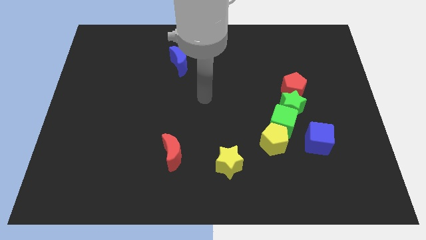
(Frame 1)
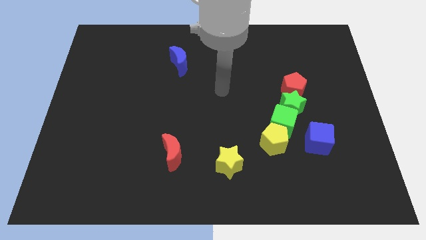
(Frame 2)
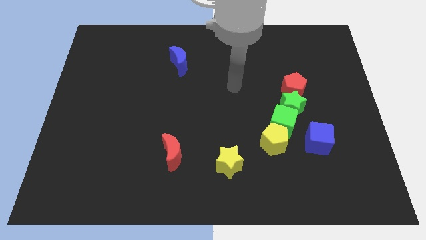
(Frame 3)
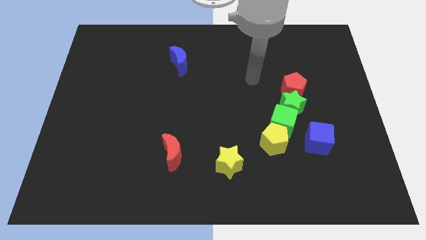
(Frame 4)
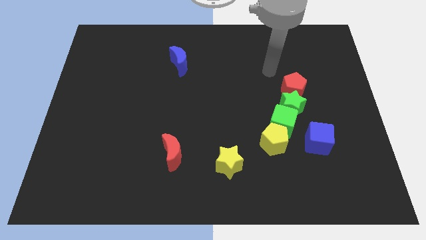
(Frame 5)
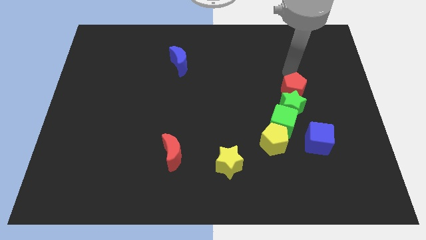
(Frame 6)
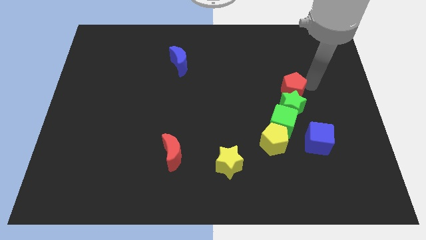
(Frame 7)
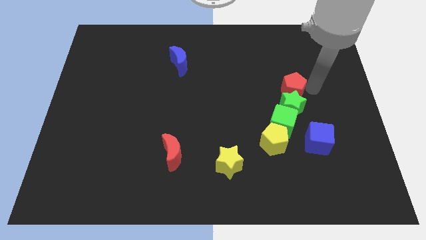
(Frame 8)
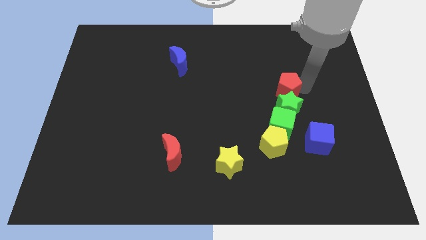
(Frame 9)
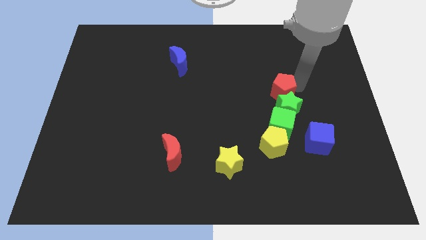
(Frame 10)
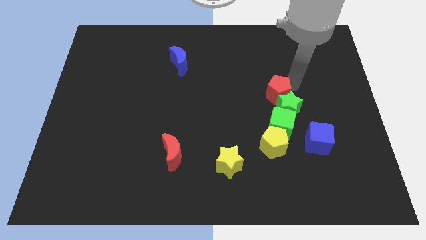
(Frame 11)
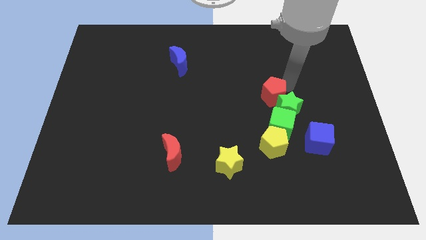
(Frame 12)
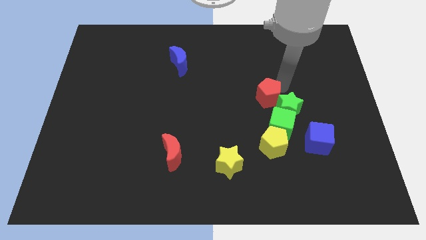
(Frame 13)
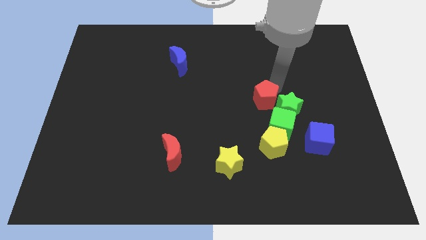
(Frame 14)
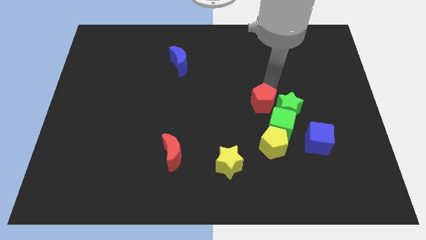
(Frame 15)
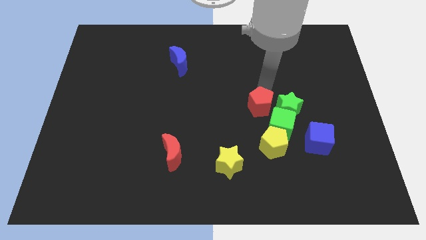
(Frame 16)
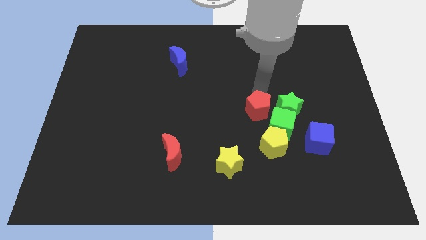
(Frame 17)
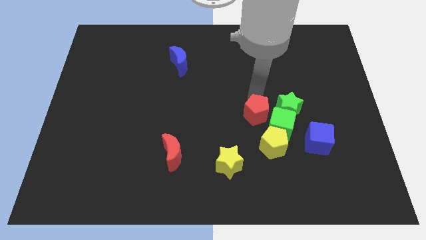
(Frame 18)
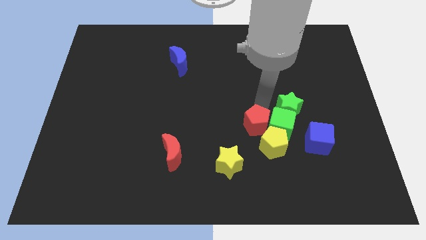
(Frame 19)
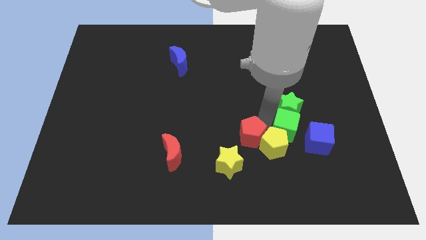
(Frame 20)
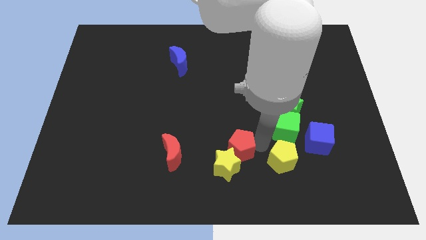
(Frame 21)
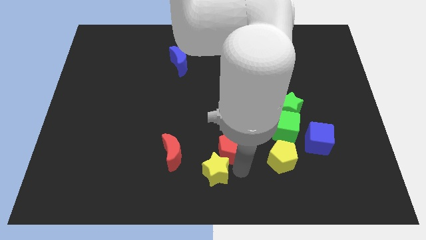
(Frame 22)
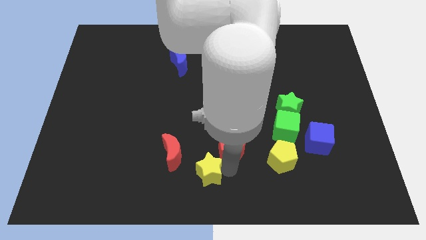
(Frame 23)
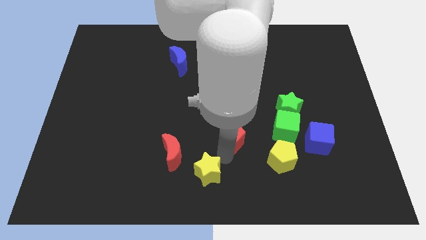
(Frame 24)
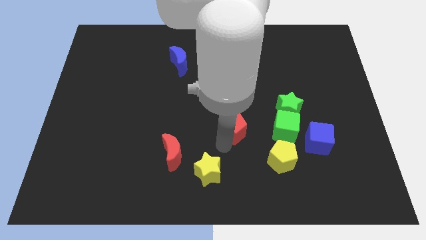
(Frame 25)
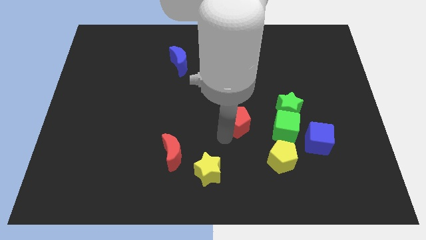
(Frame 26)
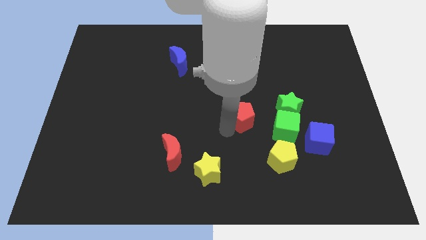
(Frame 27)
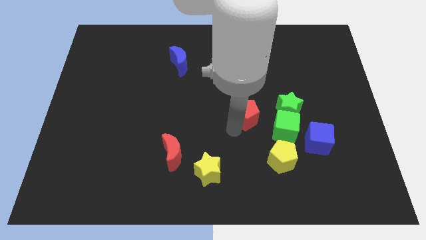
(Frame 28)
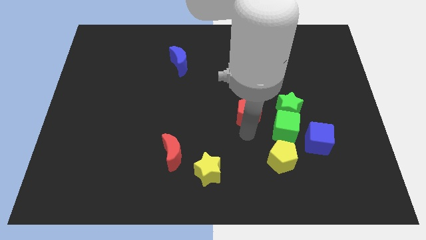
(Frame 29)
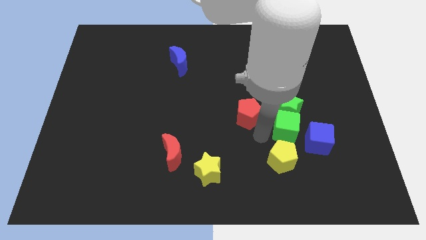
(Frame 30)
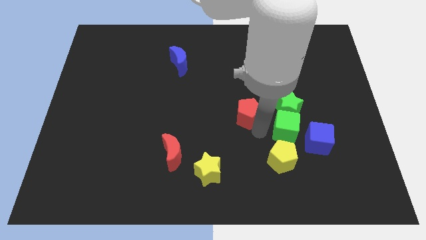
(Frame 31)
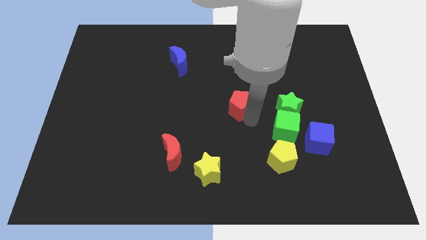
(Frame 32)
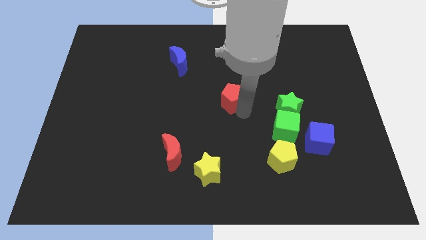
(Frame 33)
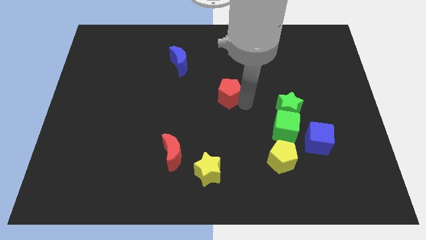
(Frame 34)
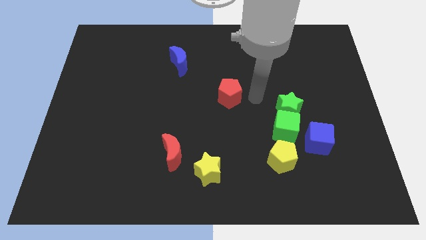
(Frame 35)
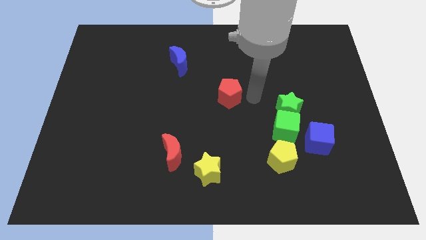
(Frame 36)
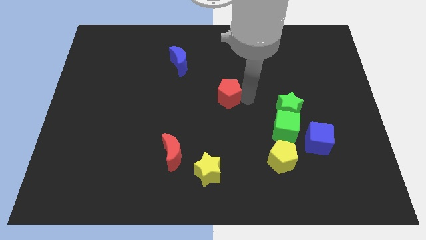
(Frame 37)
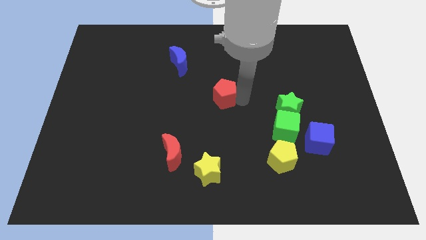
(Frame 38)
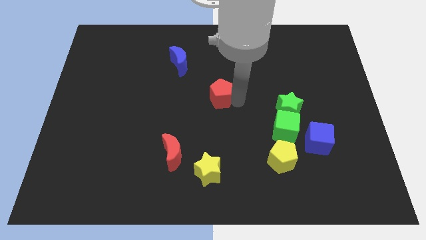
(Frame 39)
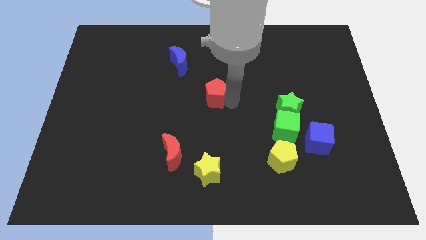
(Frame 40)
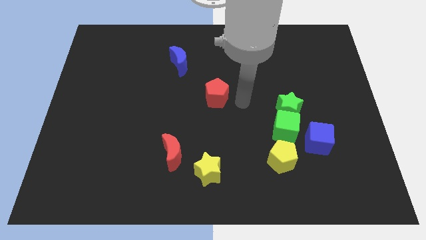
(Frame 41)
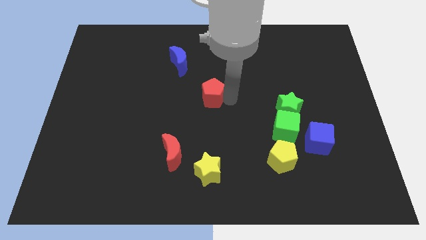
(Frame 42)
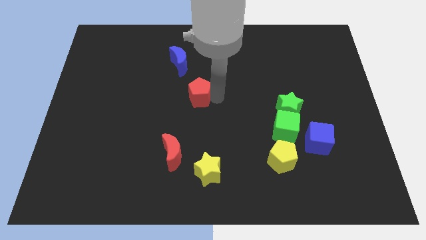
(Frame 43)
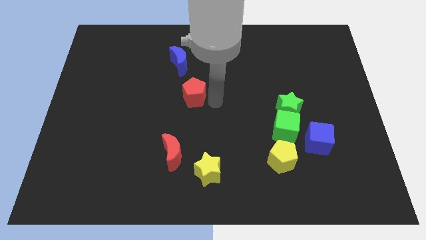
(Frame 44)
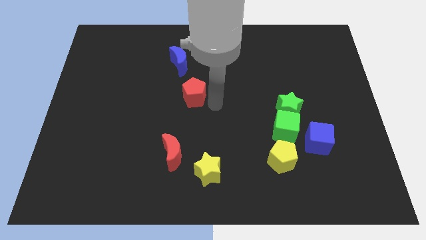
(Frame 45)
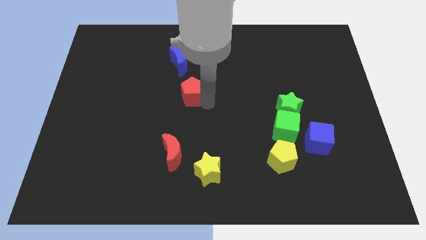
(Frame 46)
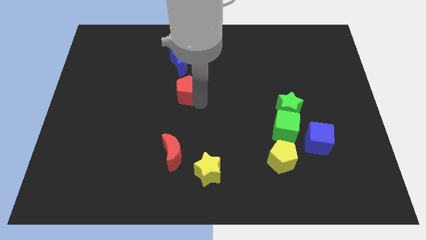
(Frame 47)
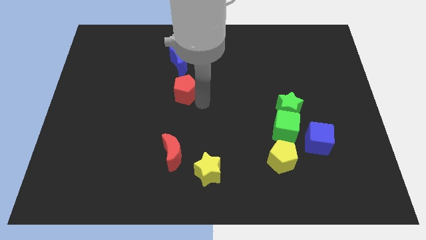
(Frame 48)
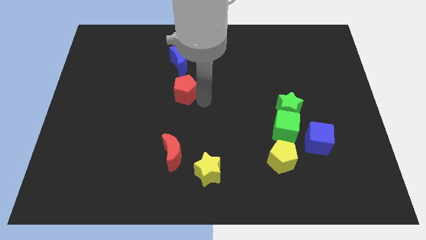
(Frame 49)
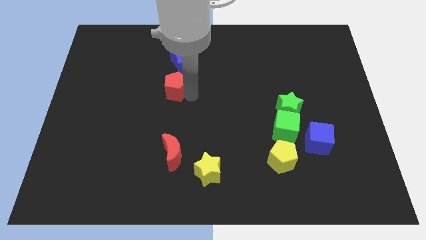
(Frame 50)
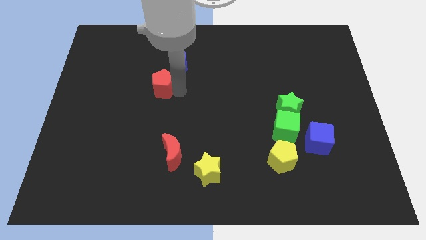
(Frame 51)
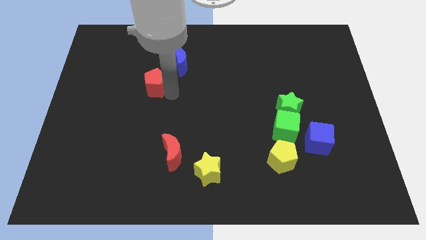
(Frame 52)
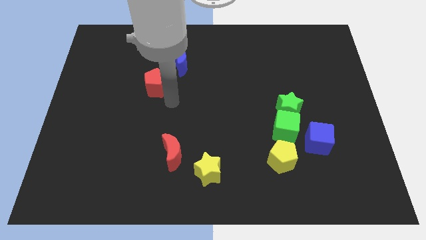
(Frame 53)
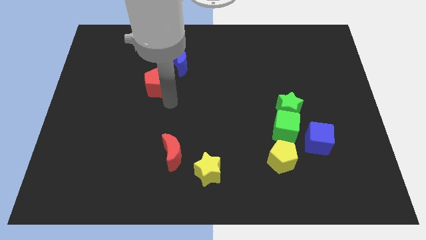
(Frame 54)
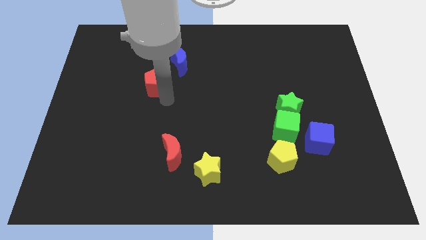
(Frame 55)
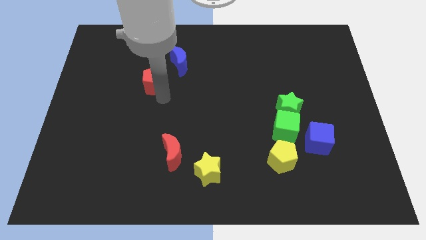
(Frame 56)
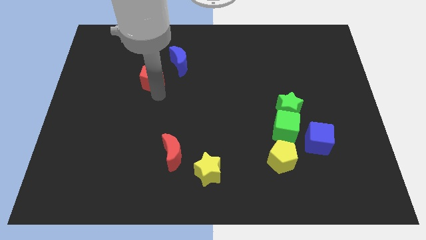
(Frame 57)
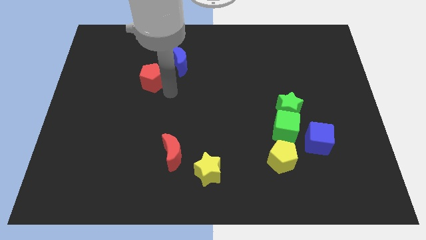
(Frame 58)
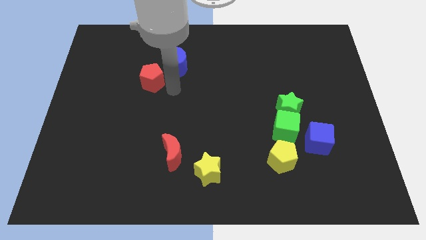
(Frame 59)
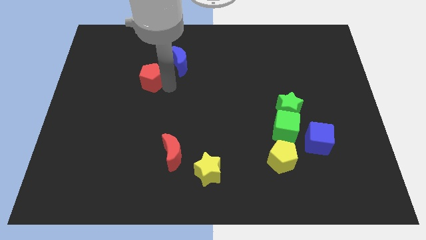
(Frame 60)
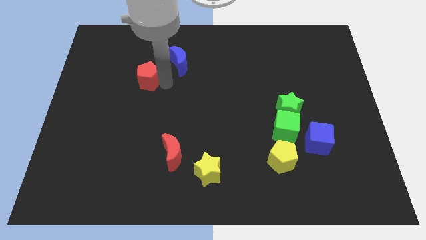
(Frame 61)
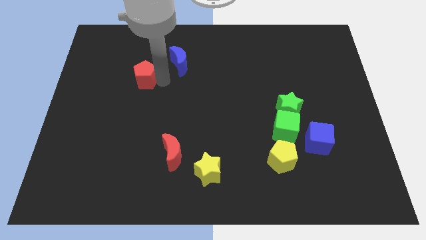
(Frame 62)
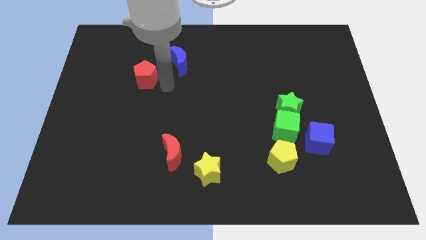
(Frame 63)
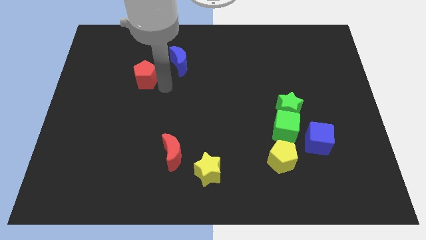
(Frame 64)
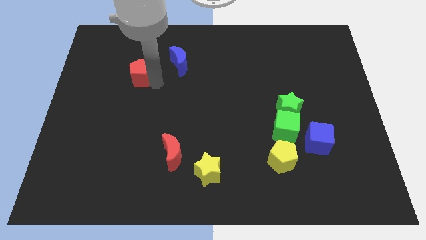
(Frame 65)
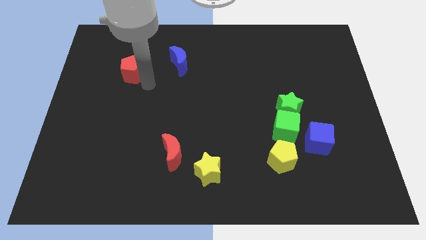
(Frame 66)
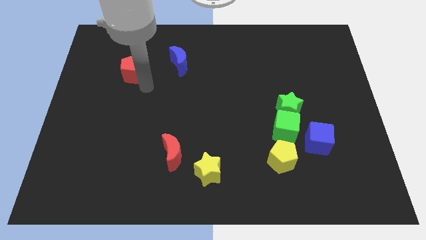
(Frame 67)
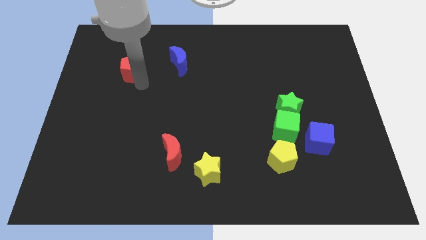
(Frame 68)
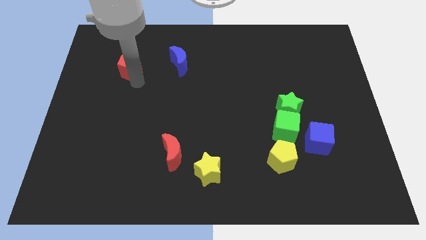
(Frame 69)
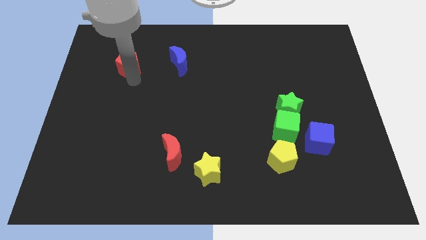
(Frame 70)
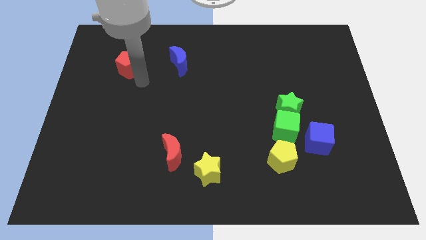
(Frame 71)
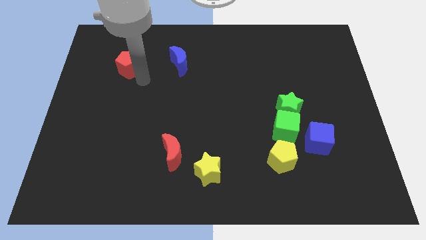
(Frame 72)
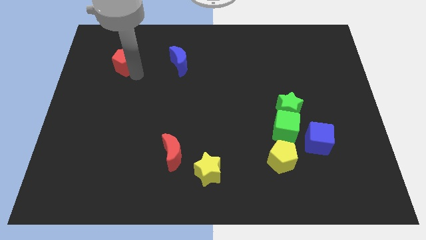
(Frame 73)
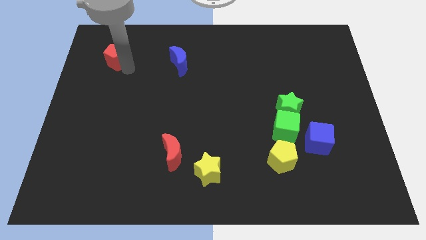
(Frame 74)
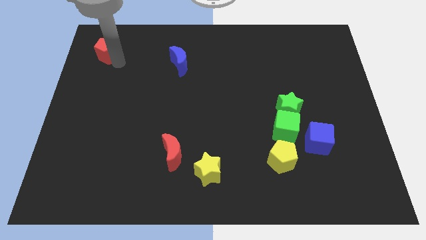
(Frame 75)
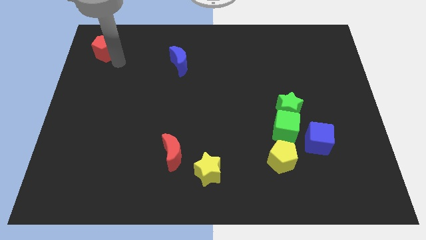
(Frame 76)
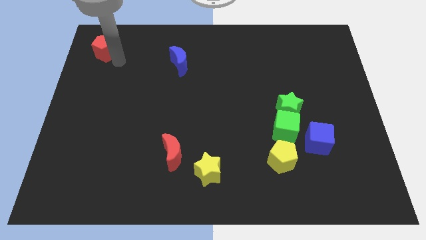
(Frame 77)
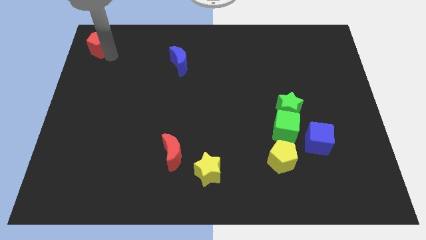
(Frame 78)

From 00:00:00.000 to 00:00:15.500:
move the red pentagon to the upper left corner
